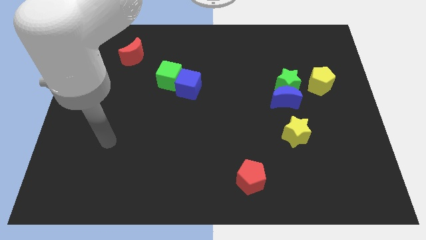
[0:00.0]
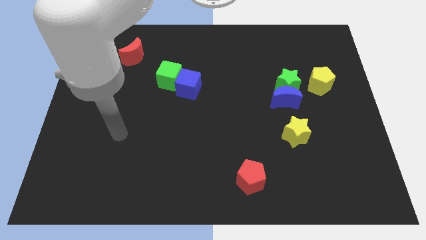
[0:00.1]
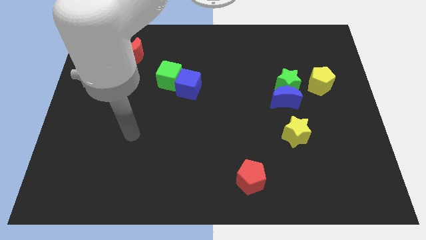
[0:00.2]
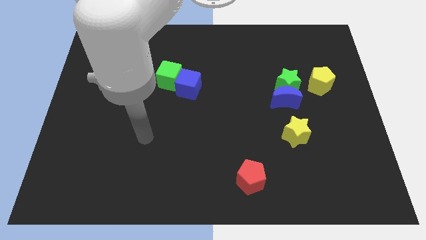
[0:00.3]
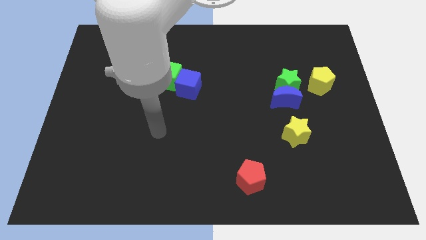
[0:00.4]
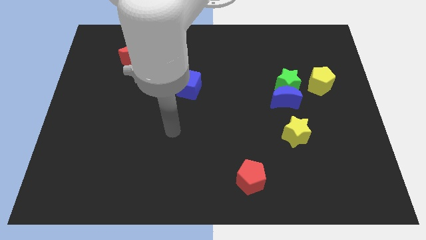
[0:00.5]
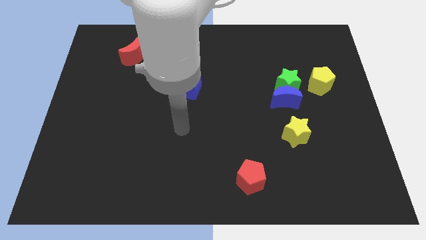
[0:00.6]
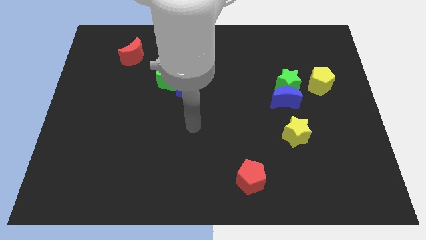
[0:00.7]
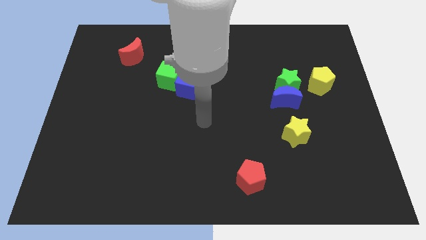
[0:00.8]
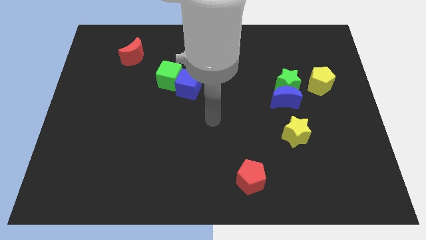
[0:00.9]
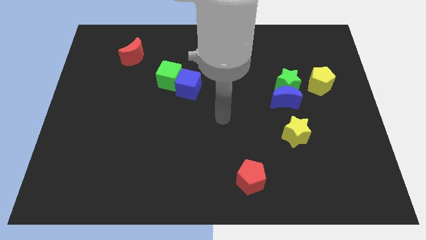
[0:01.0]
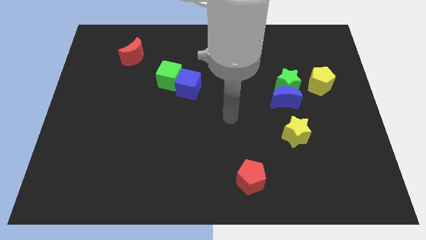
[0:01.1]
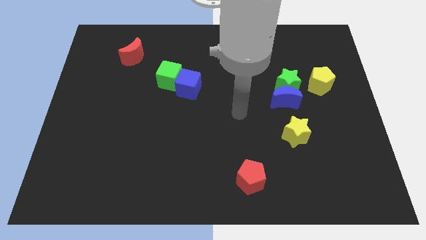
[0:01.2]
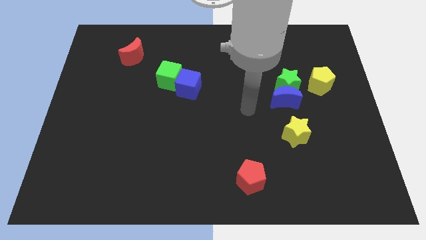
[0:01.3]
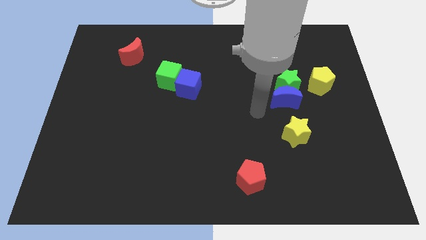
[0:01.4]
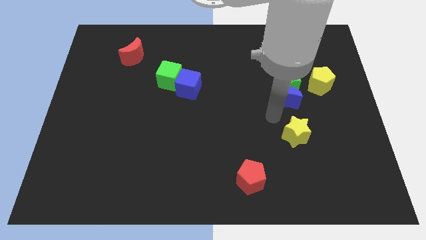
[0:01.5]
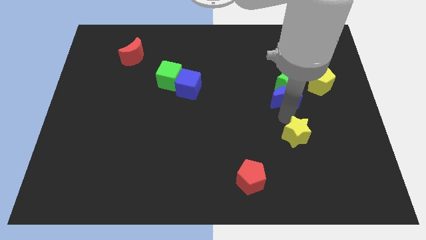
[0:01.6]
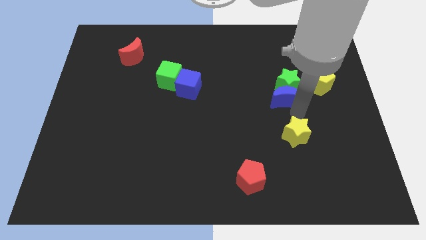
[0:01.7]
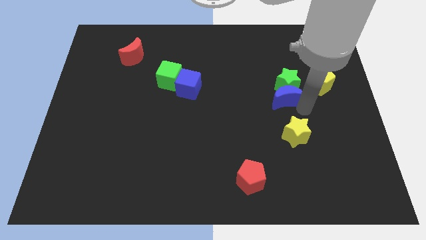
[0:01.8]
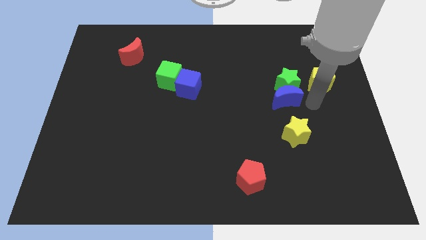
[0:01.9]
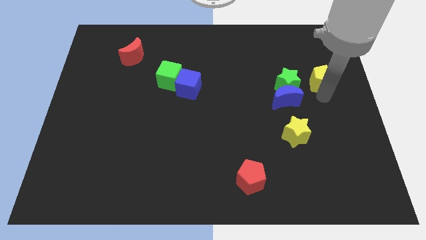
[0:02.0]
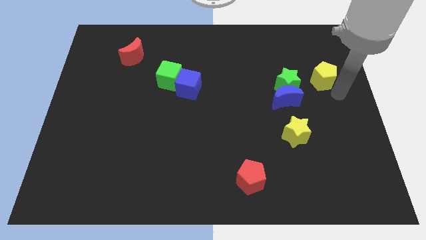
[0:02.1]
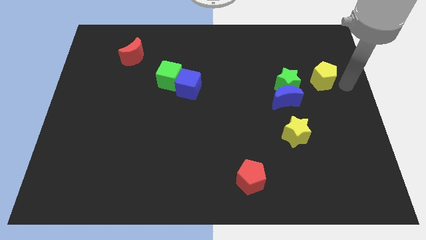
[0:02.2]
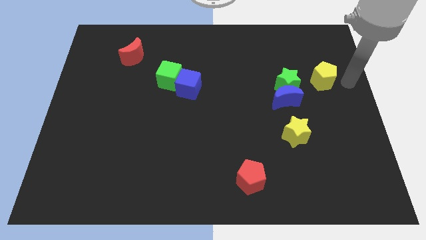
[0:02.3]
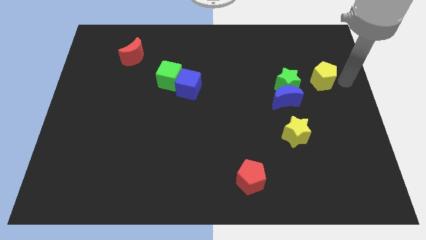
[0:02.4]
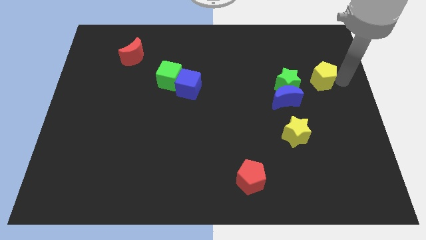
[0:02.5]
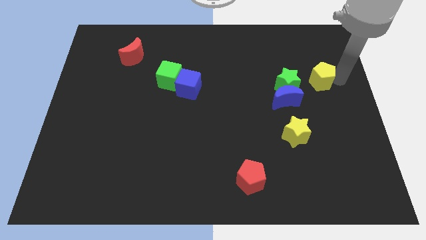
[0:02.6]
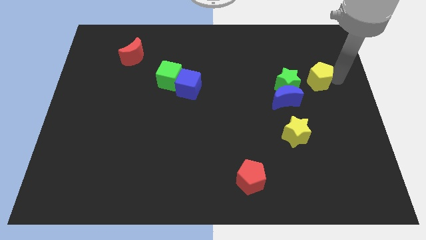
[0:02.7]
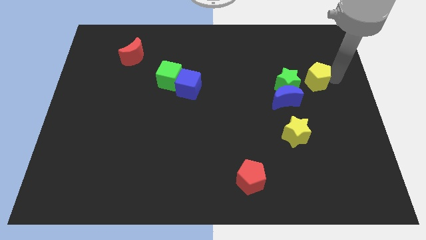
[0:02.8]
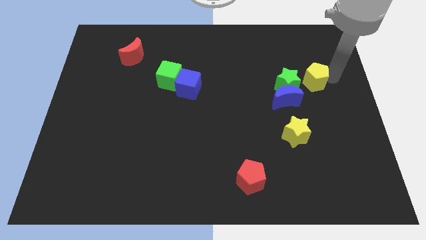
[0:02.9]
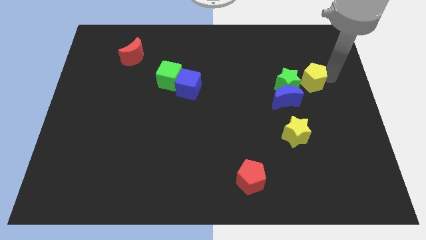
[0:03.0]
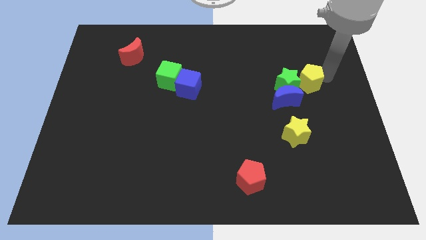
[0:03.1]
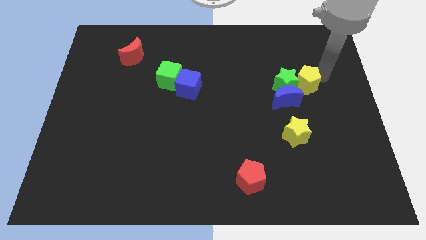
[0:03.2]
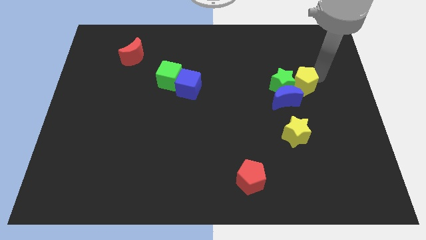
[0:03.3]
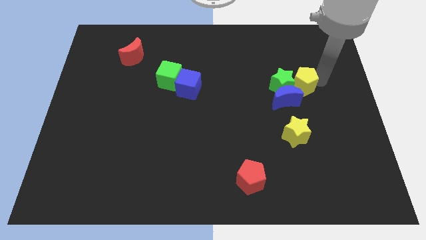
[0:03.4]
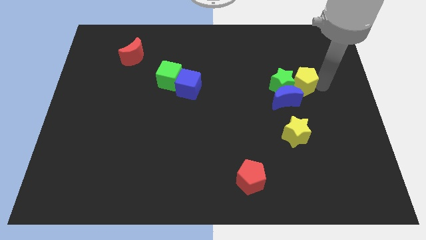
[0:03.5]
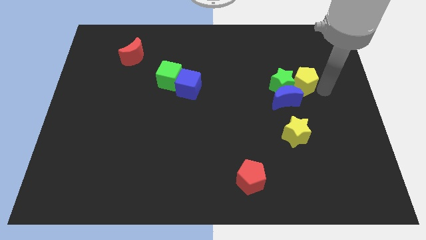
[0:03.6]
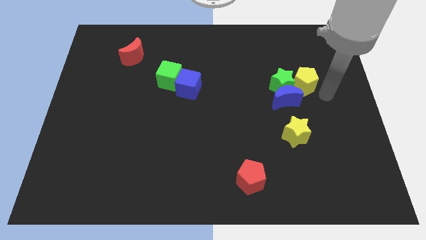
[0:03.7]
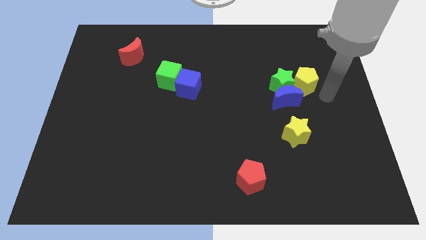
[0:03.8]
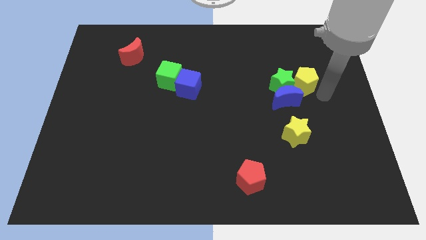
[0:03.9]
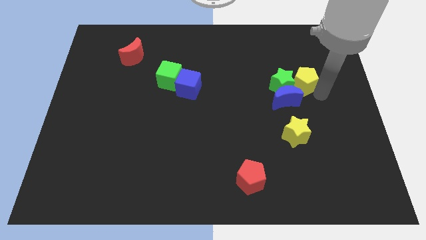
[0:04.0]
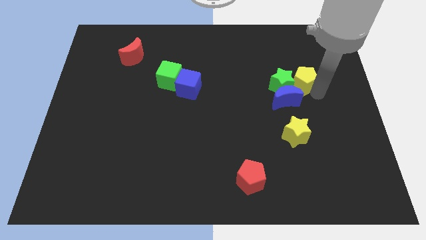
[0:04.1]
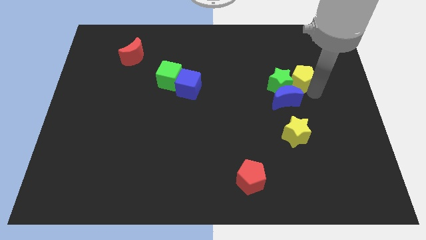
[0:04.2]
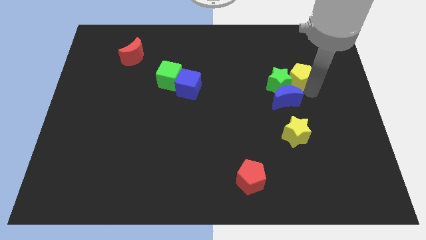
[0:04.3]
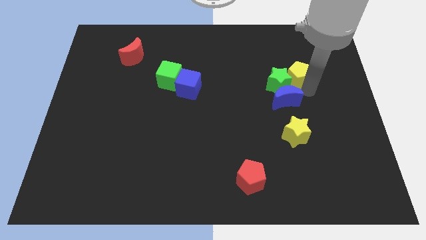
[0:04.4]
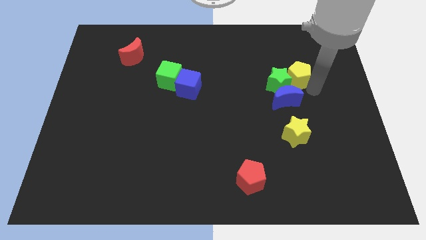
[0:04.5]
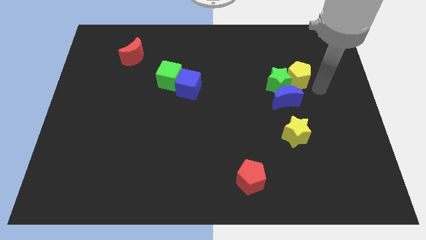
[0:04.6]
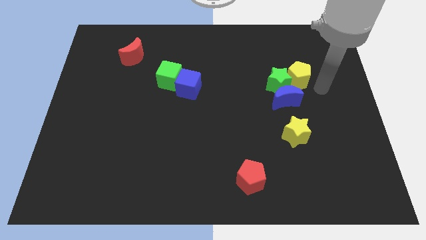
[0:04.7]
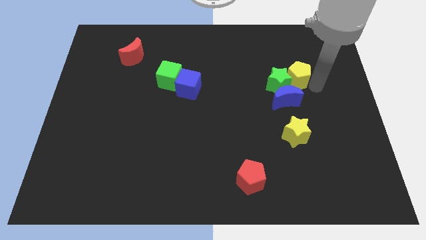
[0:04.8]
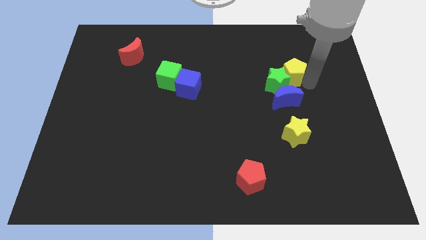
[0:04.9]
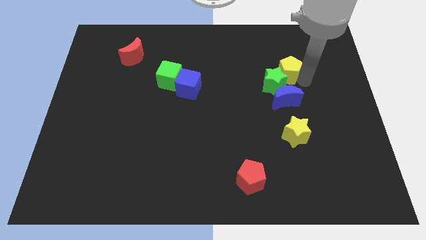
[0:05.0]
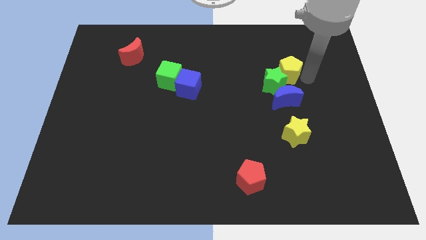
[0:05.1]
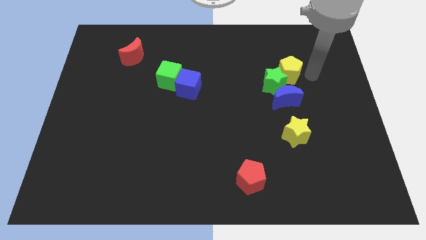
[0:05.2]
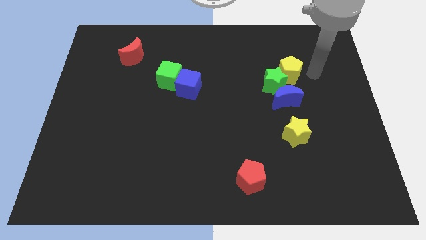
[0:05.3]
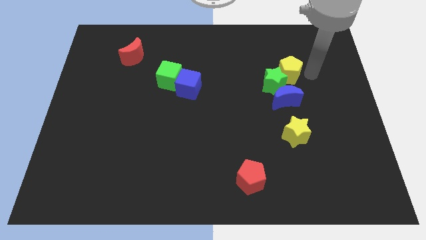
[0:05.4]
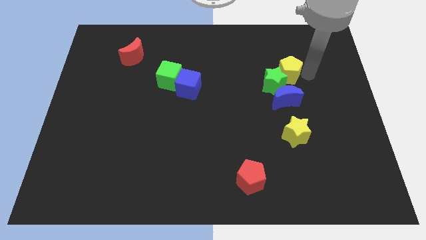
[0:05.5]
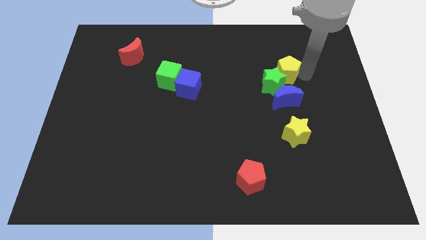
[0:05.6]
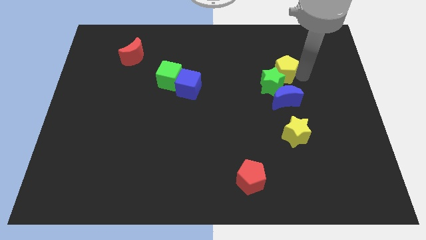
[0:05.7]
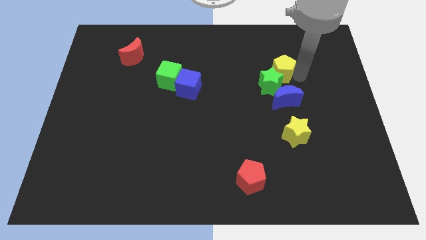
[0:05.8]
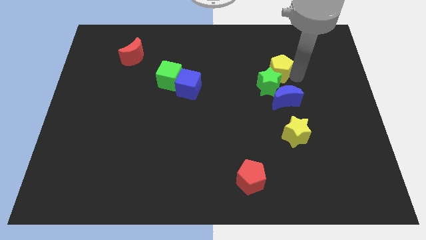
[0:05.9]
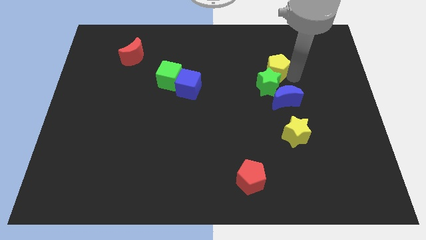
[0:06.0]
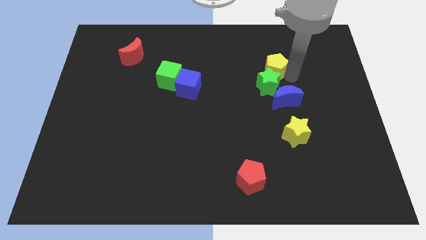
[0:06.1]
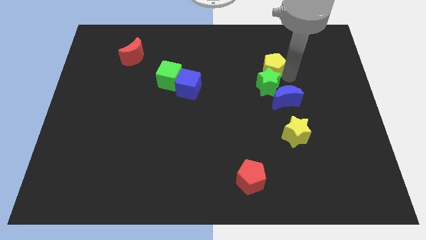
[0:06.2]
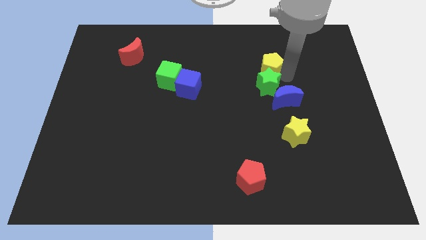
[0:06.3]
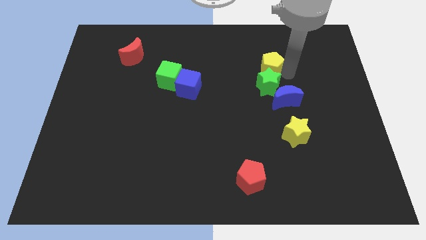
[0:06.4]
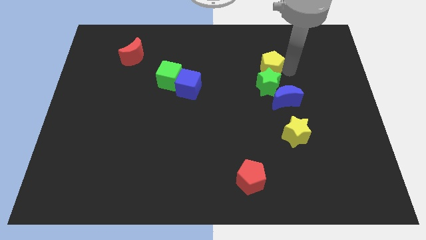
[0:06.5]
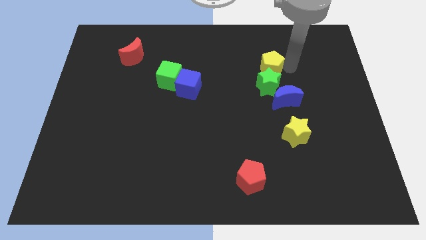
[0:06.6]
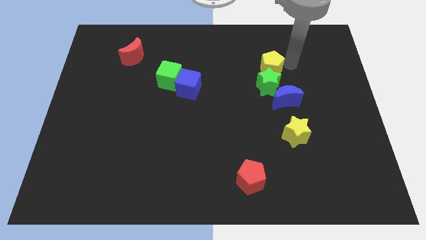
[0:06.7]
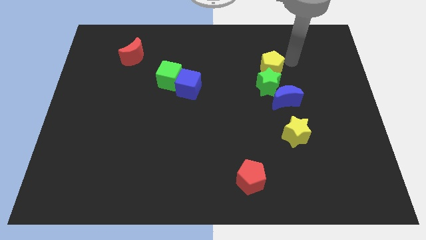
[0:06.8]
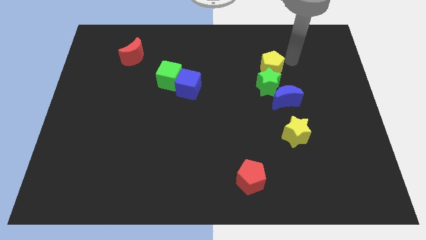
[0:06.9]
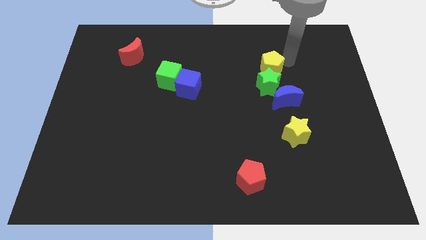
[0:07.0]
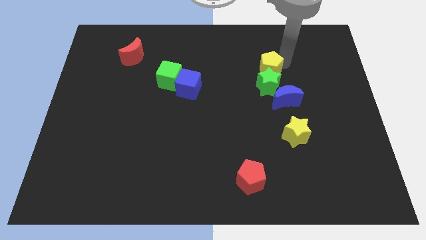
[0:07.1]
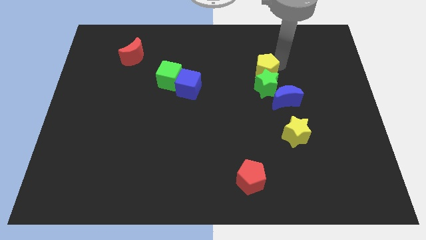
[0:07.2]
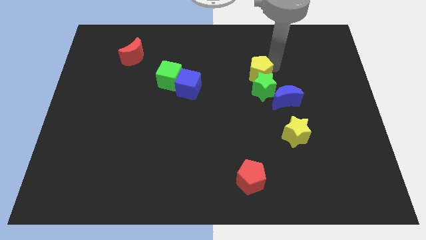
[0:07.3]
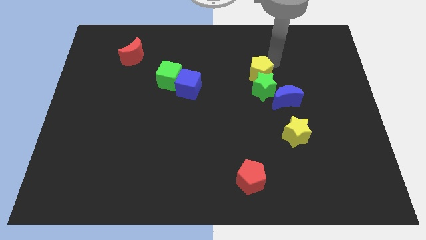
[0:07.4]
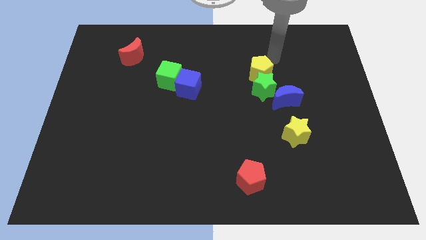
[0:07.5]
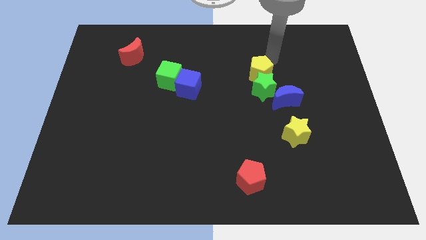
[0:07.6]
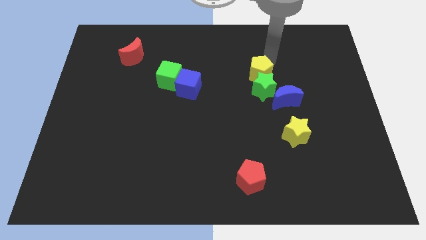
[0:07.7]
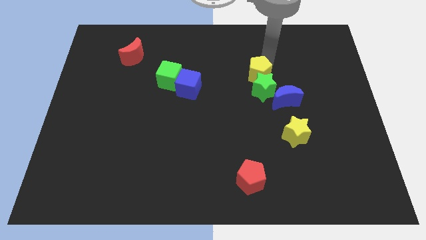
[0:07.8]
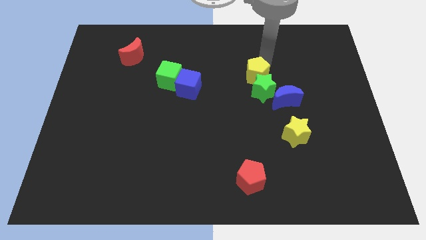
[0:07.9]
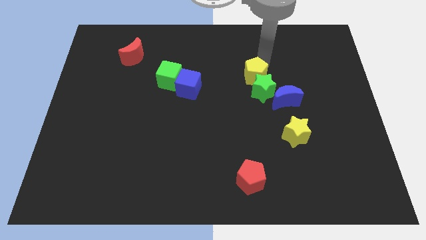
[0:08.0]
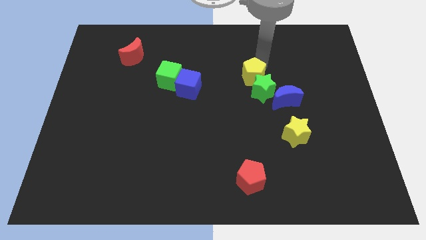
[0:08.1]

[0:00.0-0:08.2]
put the yellow pentagon to the middle of the board
